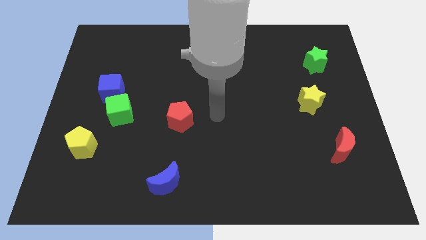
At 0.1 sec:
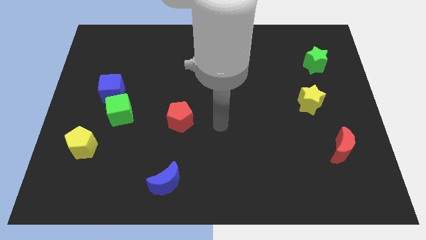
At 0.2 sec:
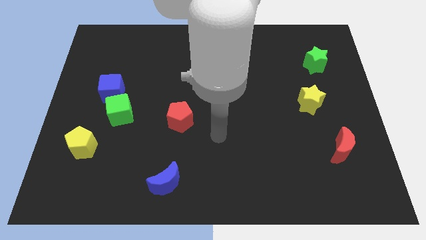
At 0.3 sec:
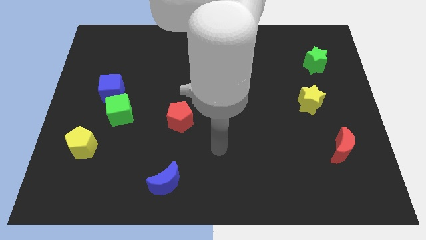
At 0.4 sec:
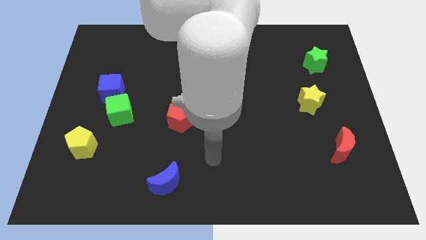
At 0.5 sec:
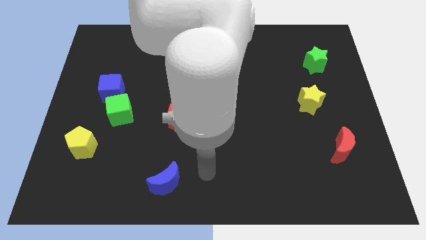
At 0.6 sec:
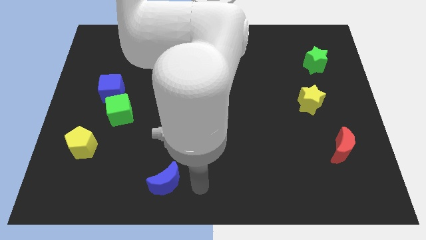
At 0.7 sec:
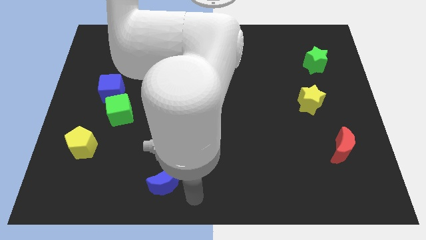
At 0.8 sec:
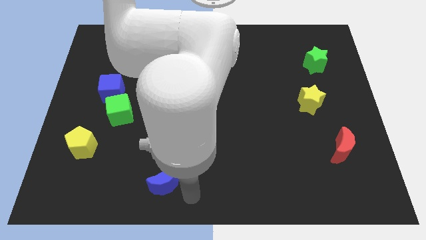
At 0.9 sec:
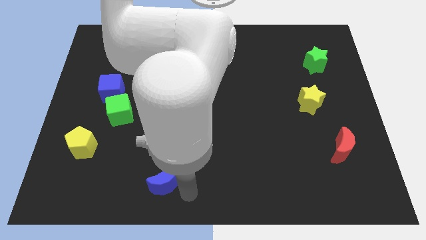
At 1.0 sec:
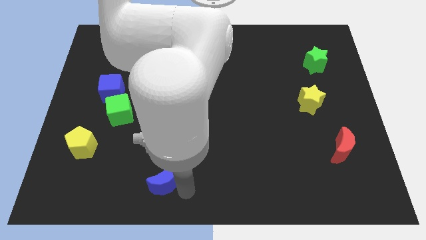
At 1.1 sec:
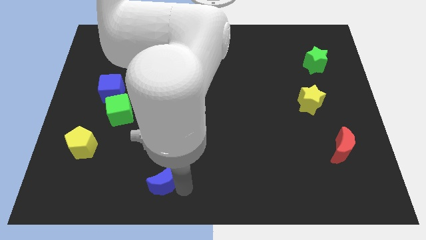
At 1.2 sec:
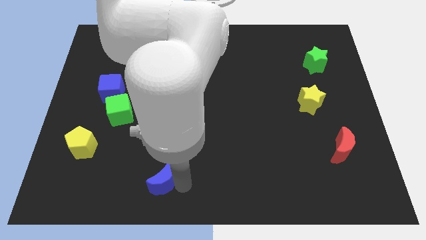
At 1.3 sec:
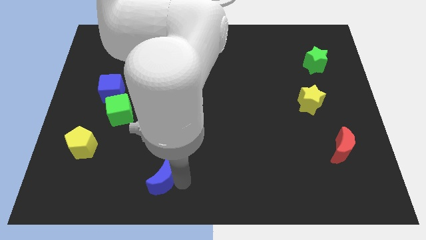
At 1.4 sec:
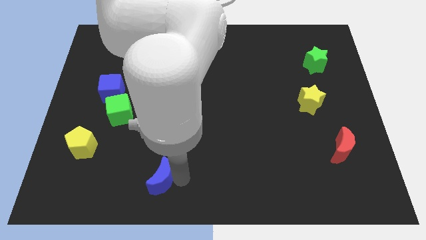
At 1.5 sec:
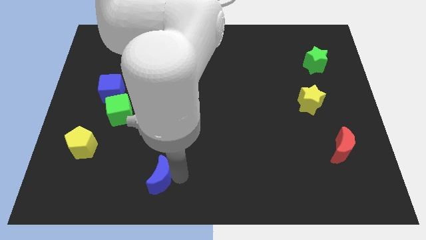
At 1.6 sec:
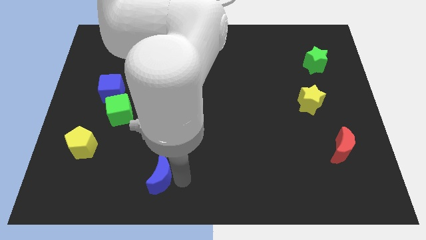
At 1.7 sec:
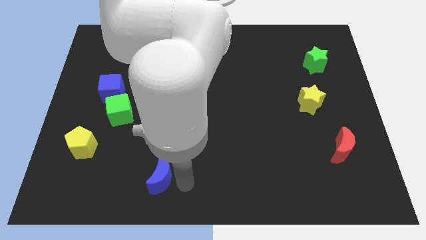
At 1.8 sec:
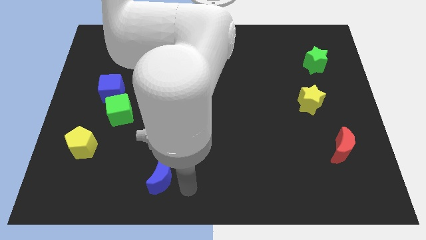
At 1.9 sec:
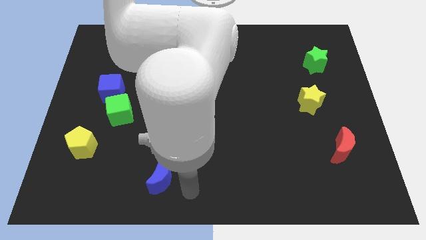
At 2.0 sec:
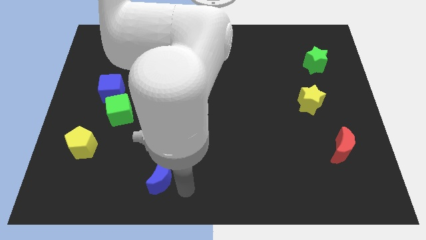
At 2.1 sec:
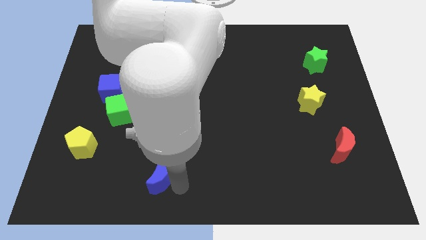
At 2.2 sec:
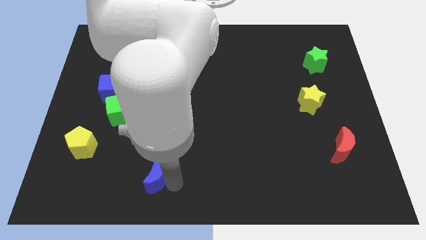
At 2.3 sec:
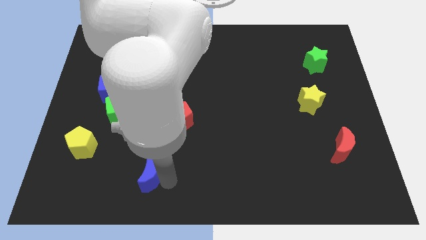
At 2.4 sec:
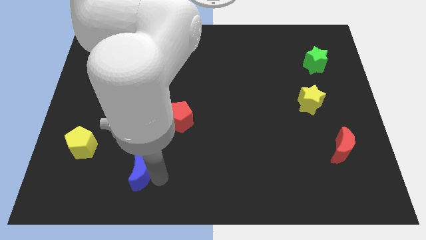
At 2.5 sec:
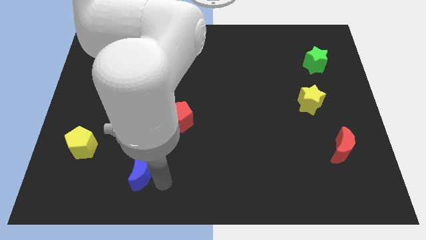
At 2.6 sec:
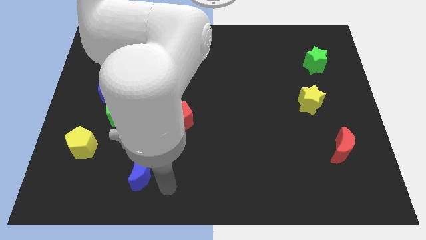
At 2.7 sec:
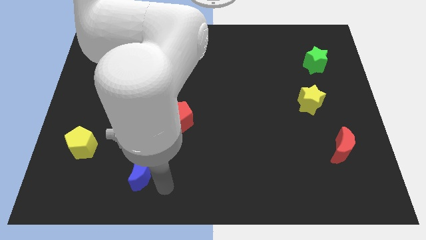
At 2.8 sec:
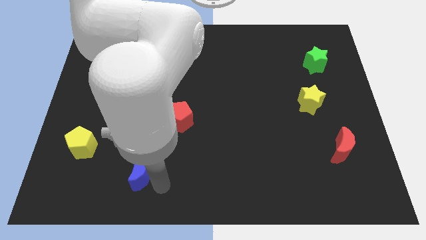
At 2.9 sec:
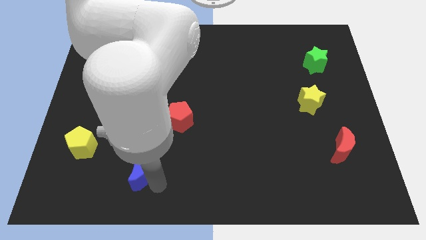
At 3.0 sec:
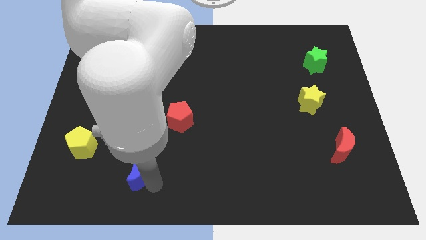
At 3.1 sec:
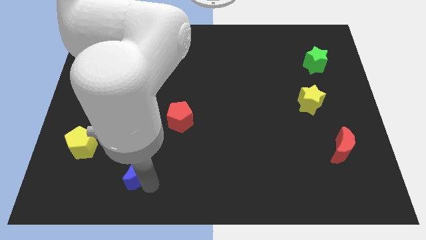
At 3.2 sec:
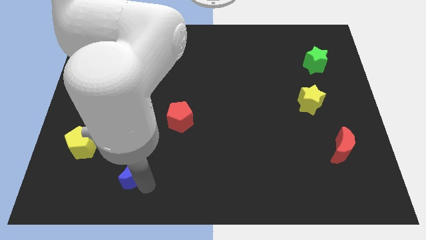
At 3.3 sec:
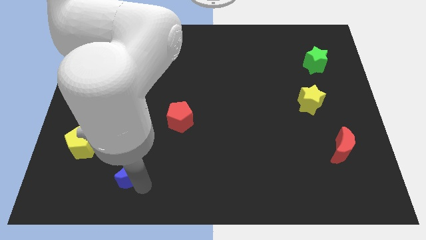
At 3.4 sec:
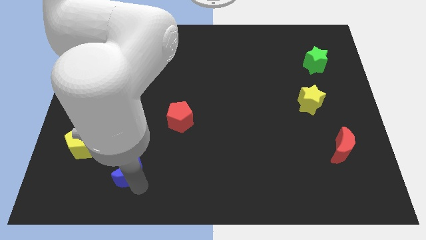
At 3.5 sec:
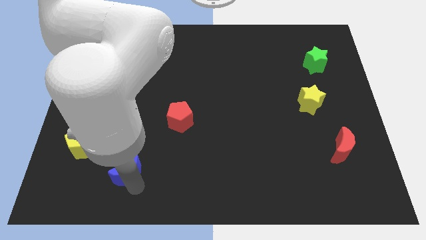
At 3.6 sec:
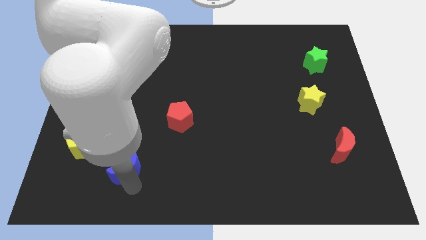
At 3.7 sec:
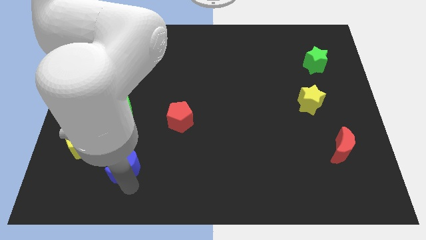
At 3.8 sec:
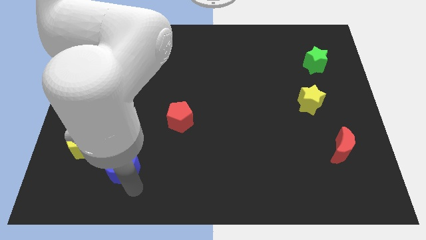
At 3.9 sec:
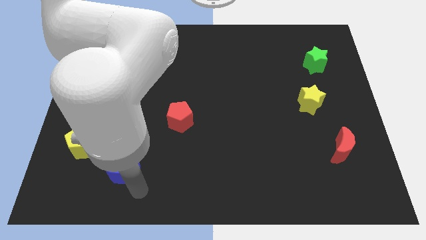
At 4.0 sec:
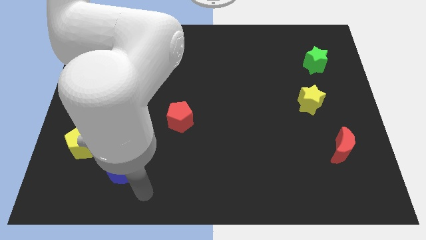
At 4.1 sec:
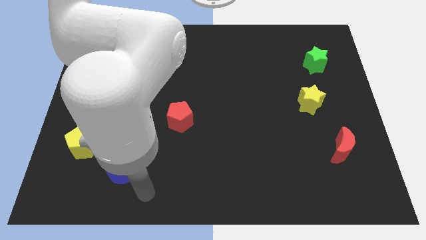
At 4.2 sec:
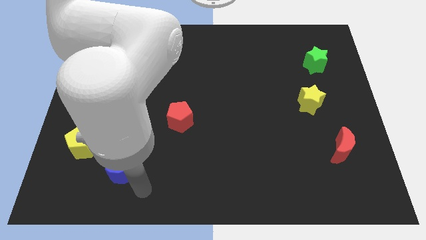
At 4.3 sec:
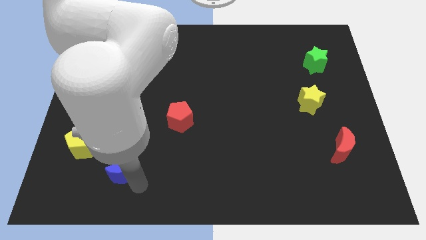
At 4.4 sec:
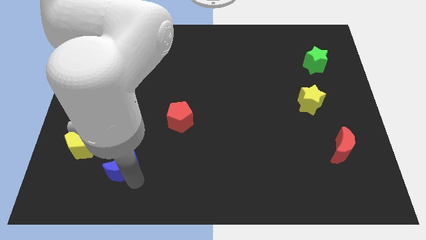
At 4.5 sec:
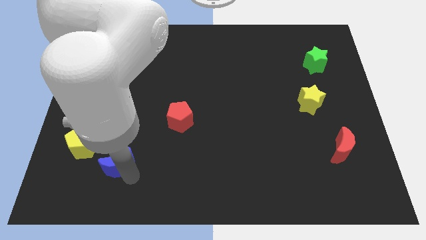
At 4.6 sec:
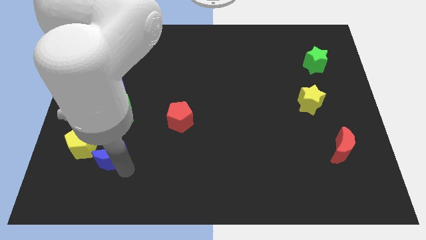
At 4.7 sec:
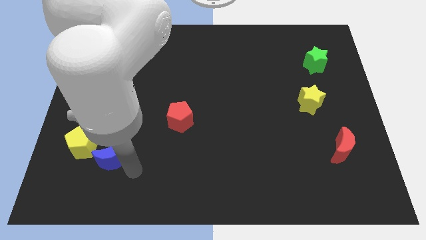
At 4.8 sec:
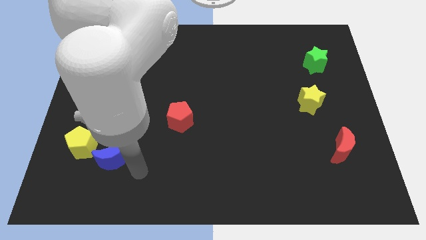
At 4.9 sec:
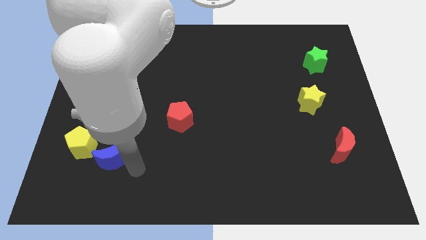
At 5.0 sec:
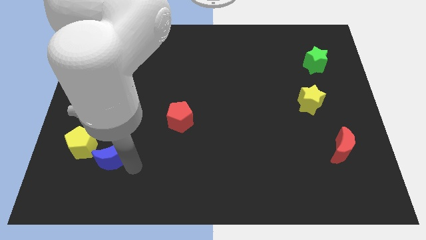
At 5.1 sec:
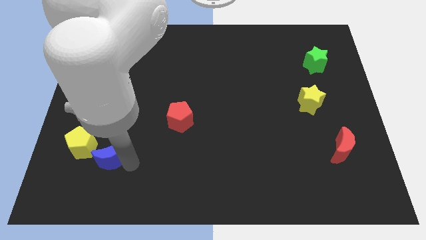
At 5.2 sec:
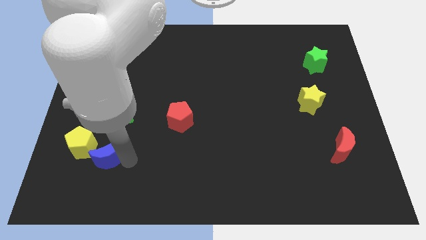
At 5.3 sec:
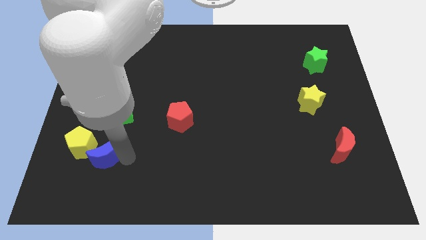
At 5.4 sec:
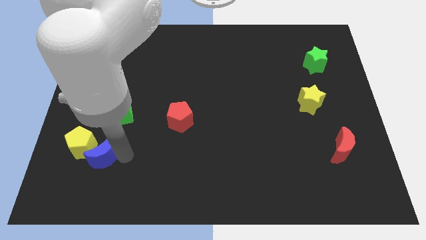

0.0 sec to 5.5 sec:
push the blue moon close to the yellow pentagon

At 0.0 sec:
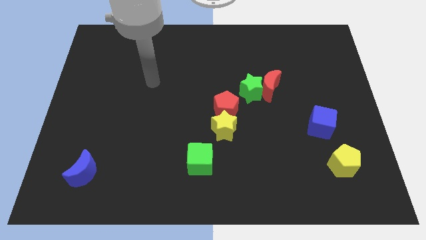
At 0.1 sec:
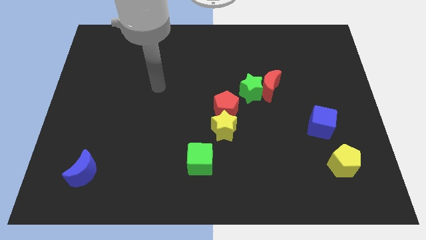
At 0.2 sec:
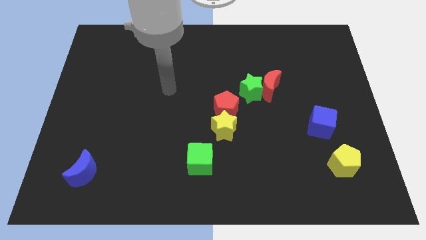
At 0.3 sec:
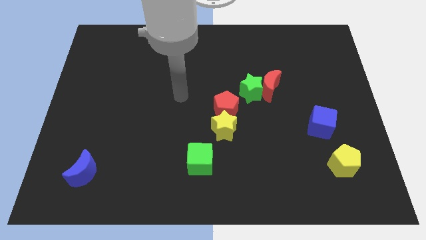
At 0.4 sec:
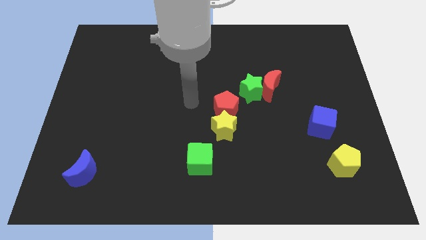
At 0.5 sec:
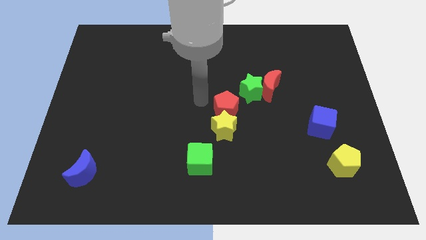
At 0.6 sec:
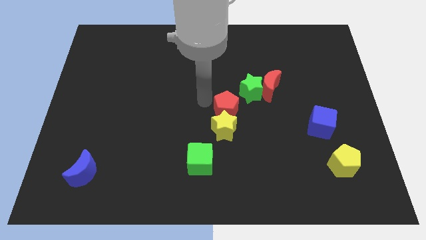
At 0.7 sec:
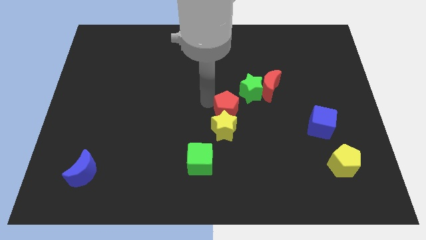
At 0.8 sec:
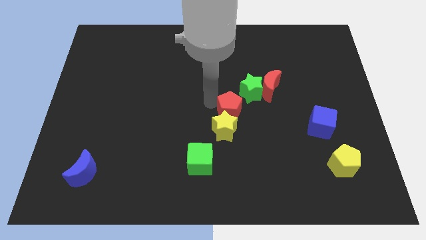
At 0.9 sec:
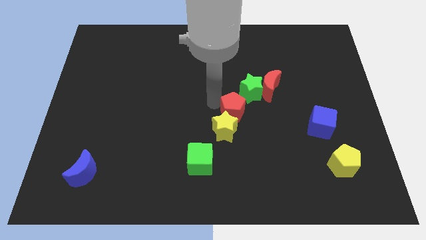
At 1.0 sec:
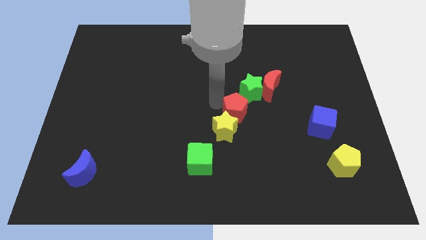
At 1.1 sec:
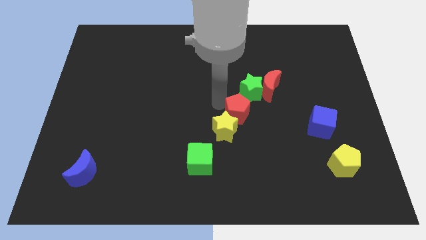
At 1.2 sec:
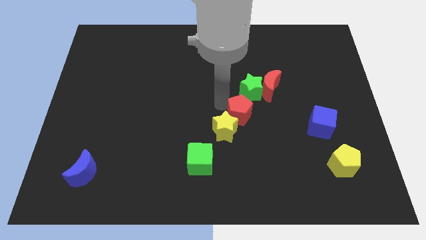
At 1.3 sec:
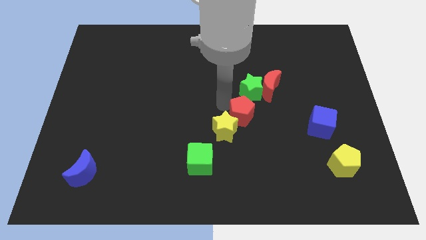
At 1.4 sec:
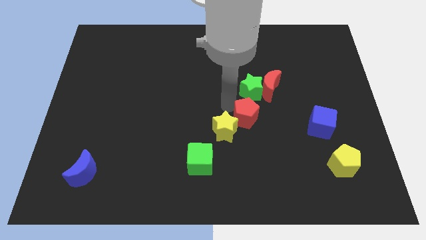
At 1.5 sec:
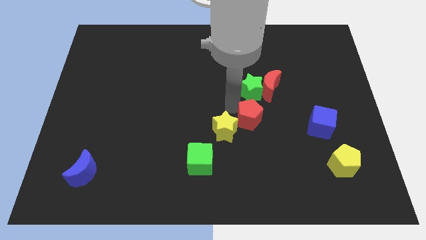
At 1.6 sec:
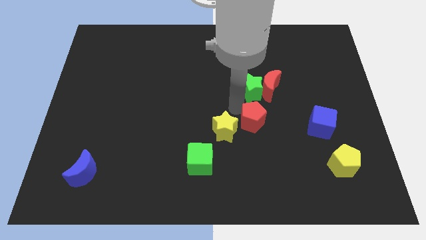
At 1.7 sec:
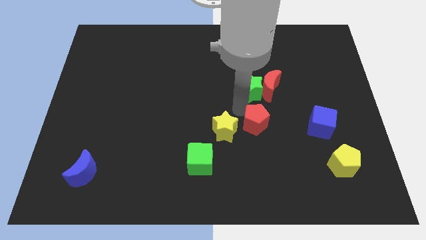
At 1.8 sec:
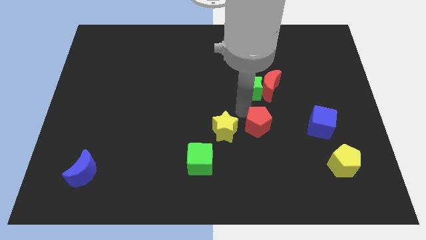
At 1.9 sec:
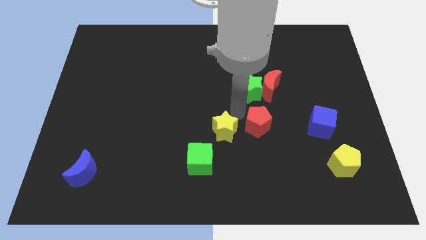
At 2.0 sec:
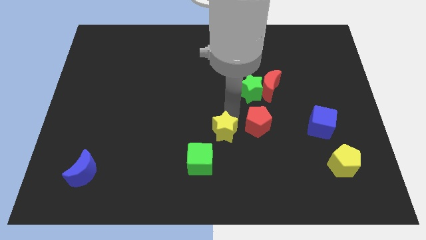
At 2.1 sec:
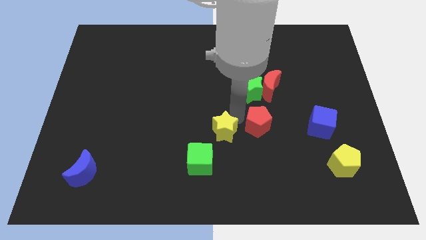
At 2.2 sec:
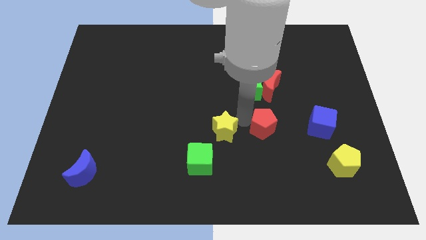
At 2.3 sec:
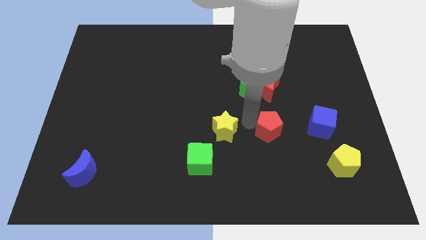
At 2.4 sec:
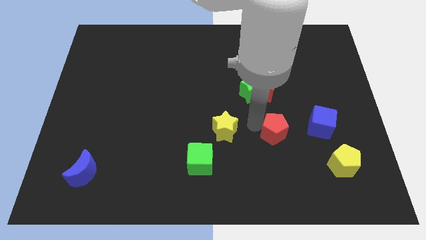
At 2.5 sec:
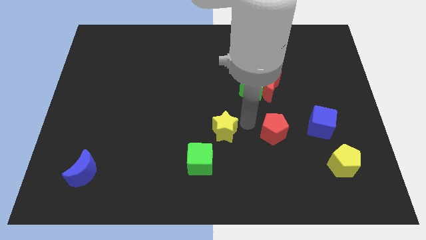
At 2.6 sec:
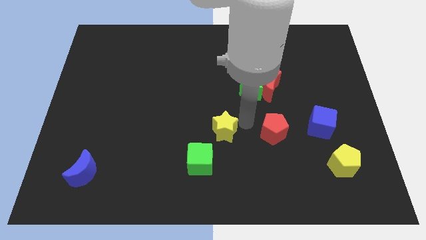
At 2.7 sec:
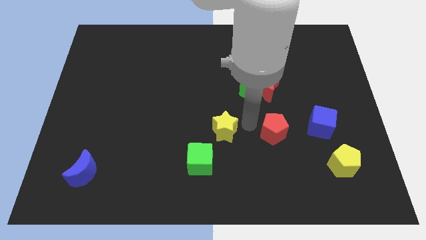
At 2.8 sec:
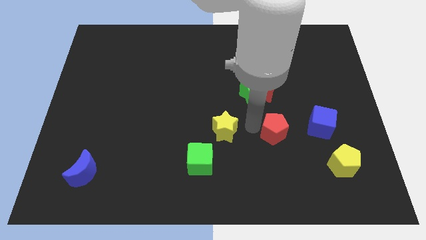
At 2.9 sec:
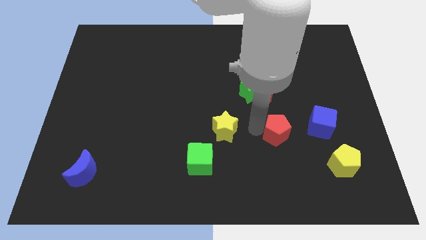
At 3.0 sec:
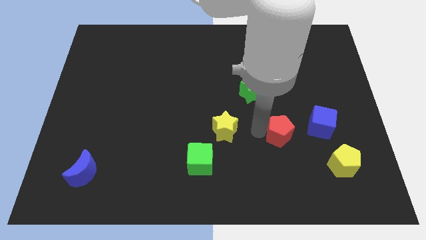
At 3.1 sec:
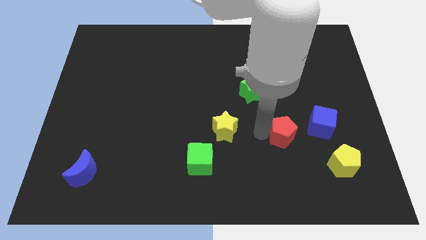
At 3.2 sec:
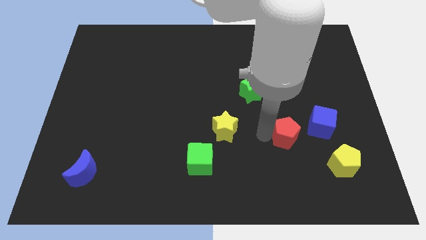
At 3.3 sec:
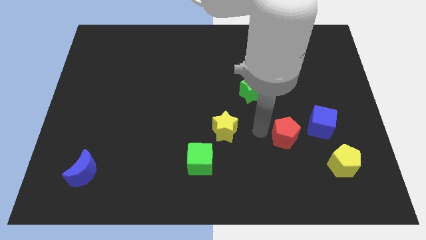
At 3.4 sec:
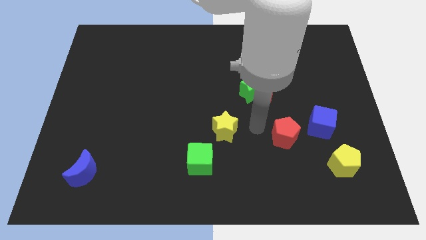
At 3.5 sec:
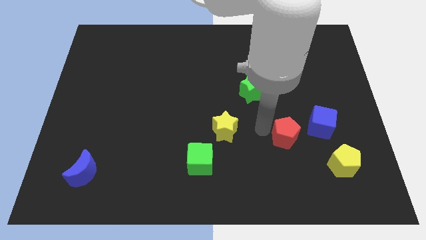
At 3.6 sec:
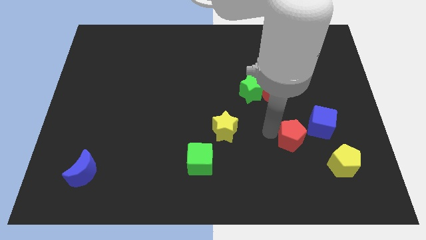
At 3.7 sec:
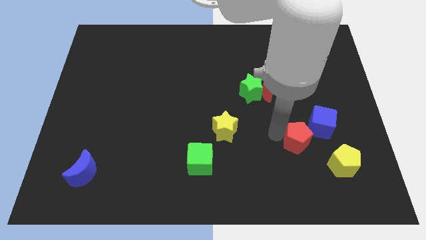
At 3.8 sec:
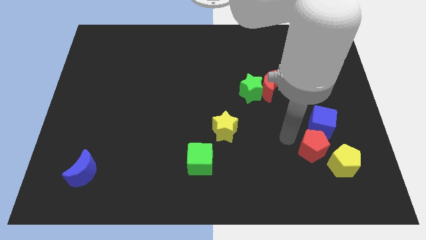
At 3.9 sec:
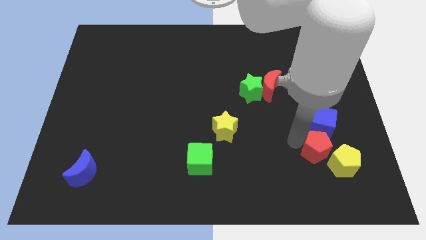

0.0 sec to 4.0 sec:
move the red pentagon towards the yellow pentagon
